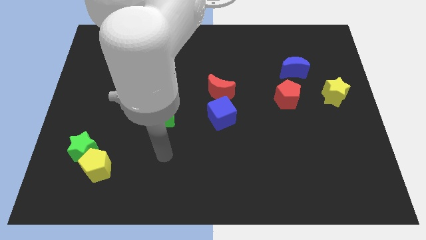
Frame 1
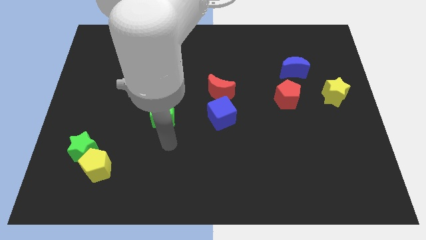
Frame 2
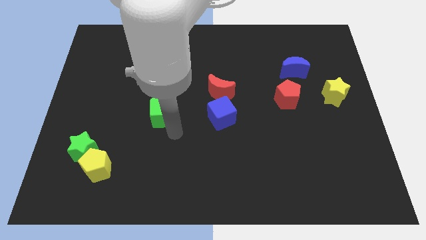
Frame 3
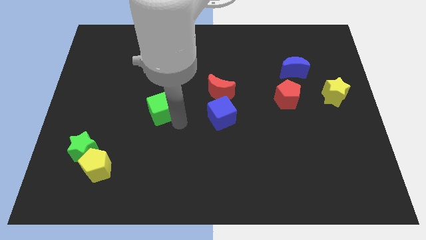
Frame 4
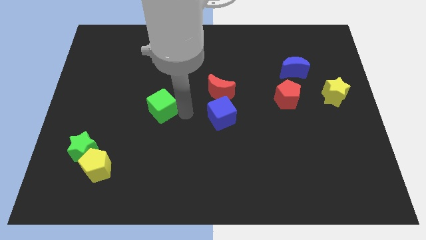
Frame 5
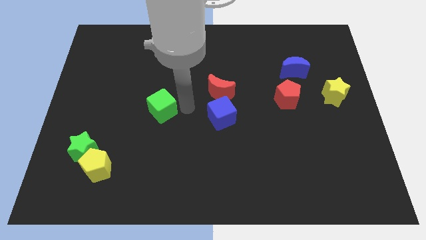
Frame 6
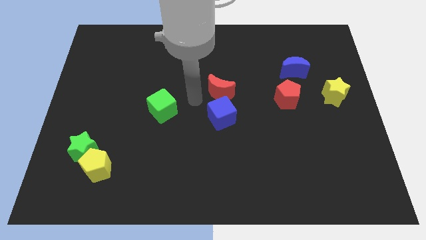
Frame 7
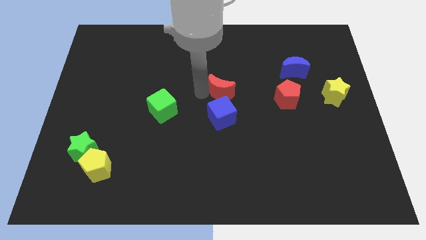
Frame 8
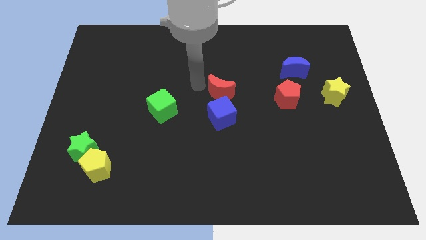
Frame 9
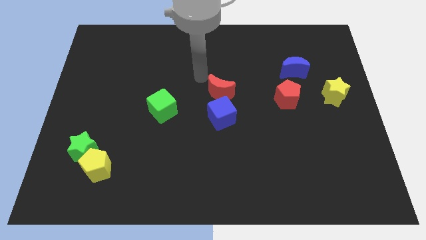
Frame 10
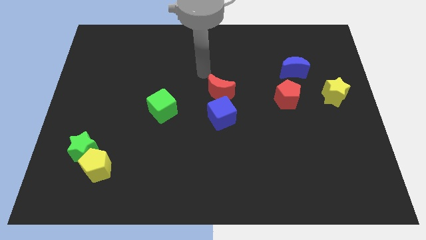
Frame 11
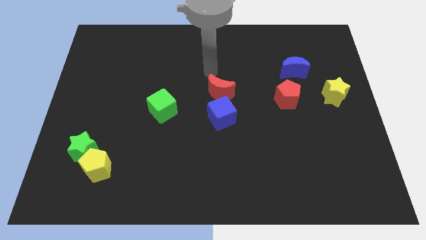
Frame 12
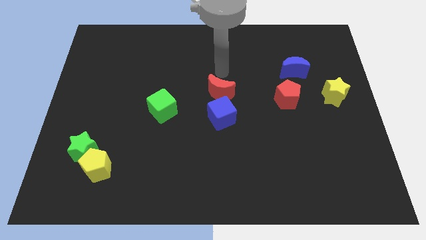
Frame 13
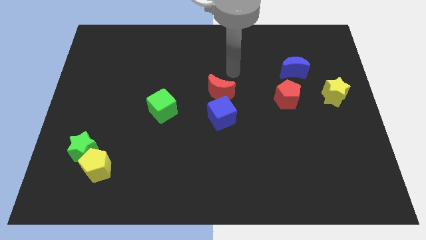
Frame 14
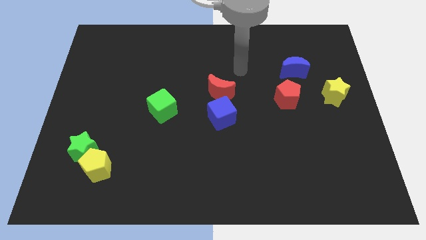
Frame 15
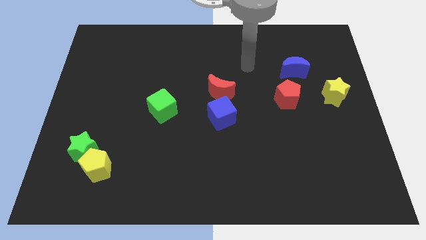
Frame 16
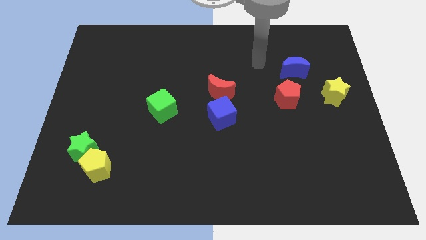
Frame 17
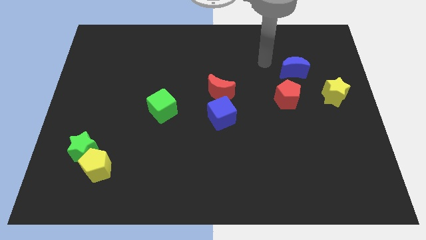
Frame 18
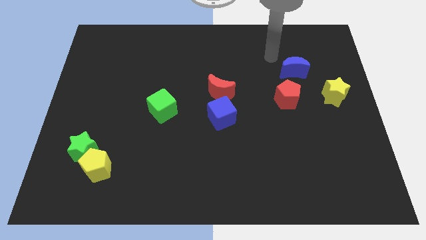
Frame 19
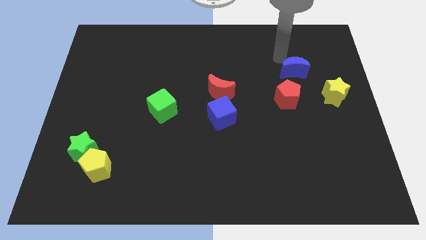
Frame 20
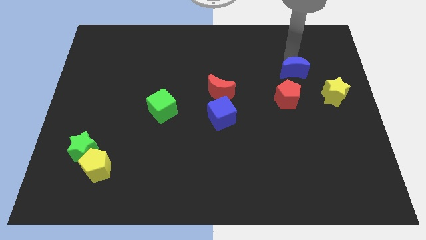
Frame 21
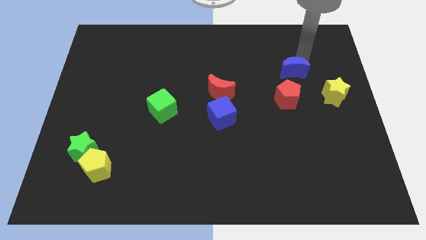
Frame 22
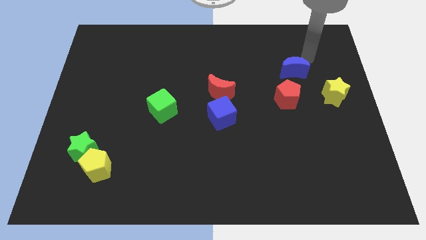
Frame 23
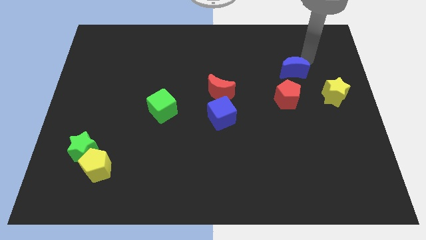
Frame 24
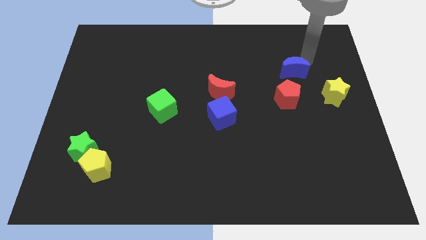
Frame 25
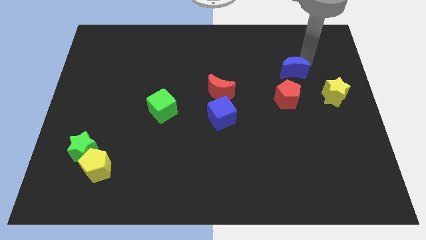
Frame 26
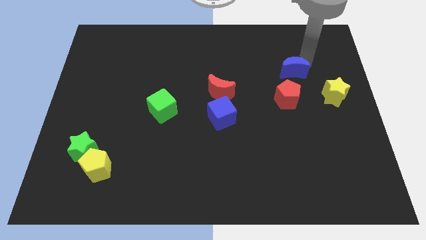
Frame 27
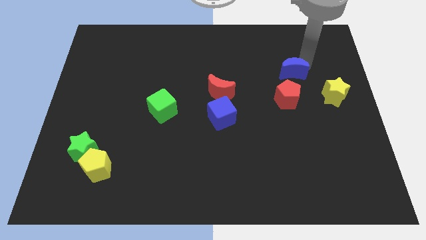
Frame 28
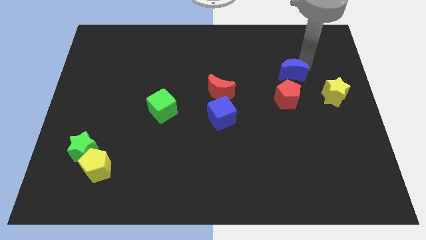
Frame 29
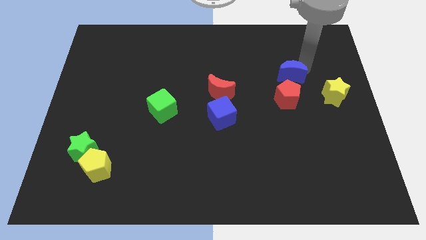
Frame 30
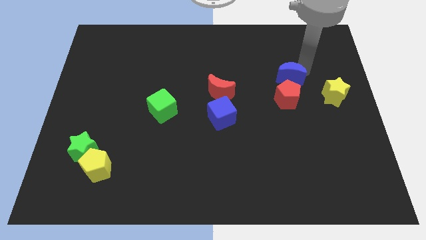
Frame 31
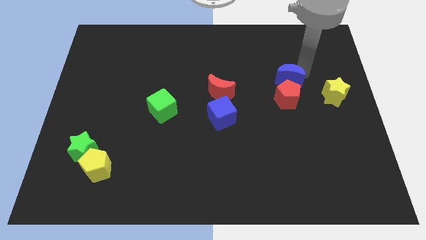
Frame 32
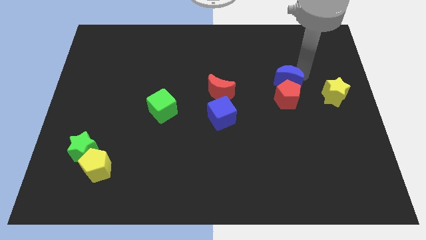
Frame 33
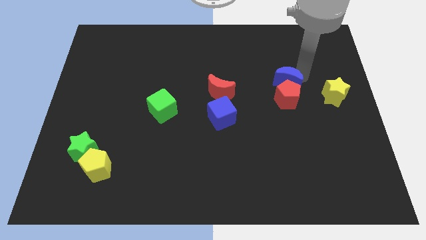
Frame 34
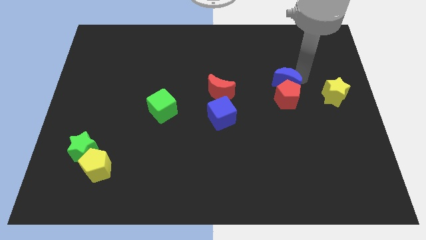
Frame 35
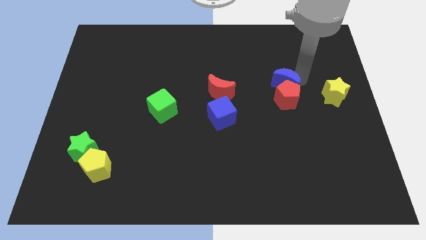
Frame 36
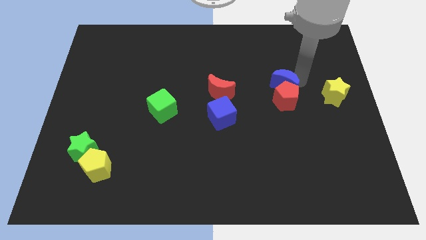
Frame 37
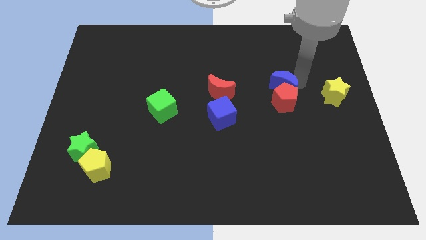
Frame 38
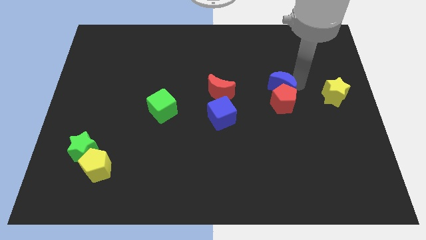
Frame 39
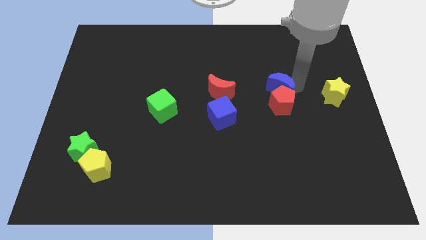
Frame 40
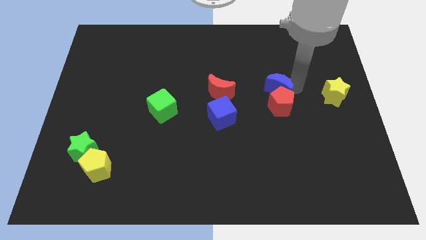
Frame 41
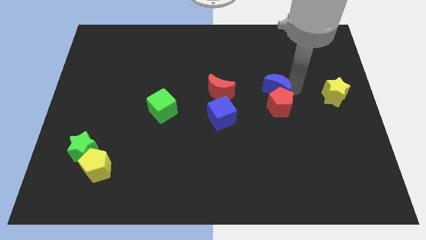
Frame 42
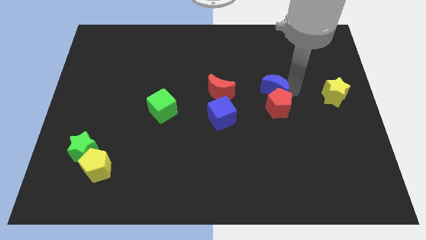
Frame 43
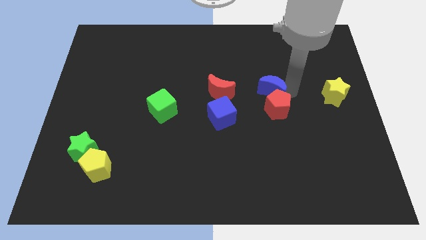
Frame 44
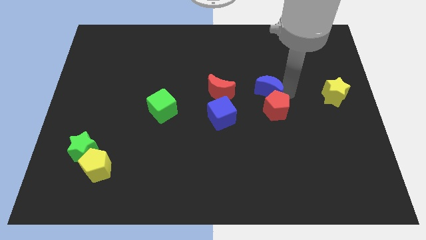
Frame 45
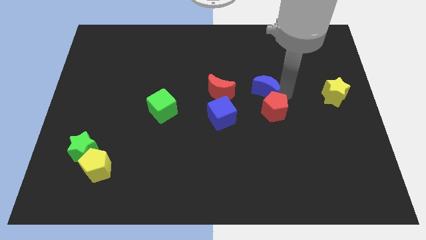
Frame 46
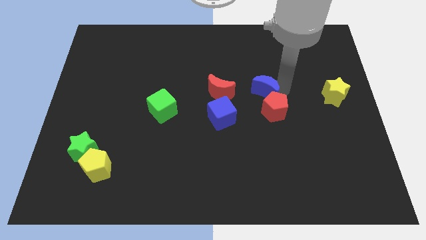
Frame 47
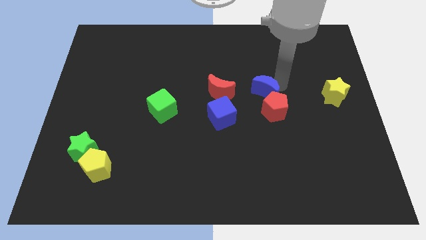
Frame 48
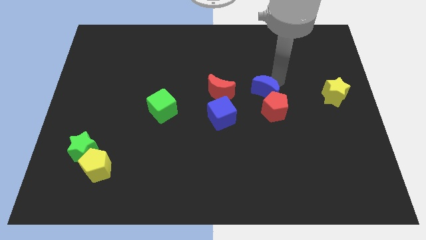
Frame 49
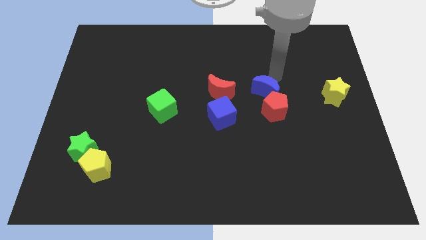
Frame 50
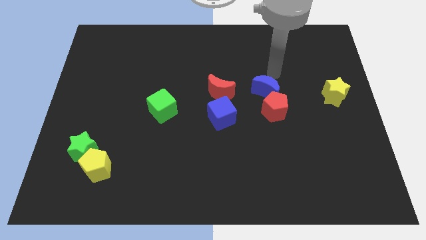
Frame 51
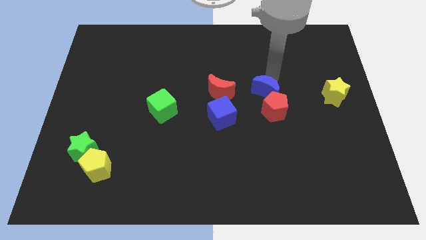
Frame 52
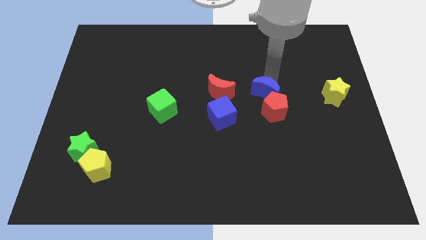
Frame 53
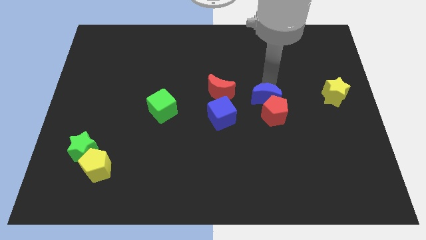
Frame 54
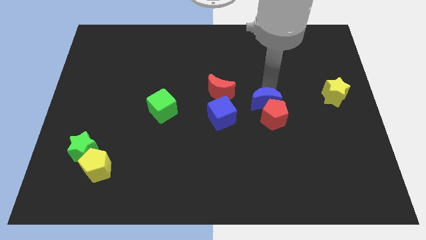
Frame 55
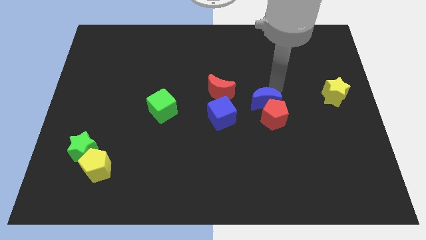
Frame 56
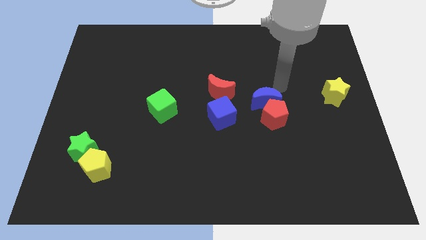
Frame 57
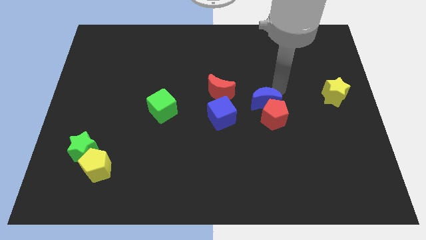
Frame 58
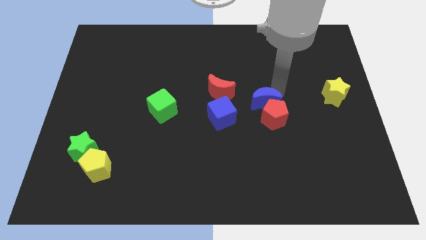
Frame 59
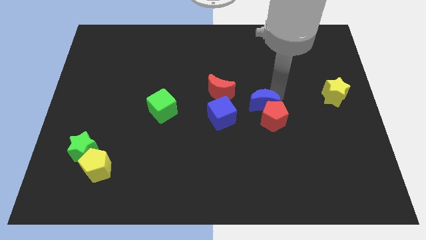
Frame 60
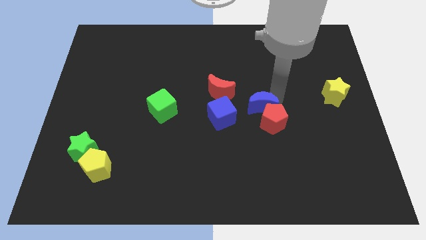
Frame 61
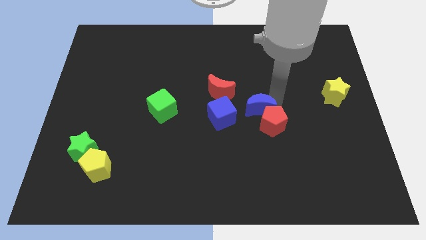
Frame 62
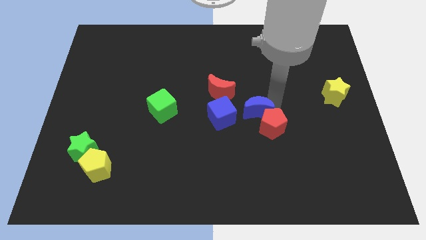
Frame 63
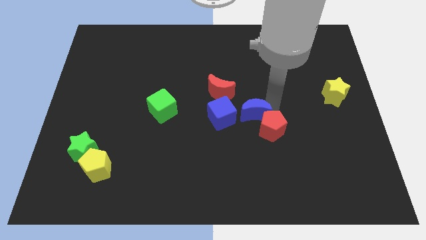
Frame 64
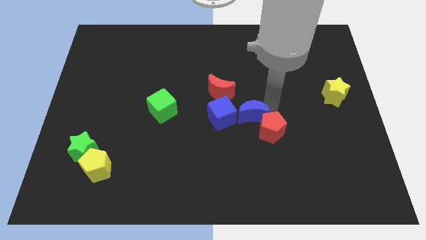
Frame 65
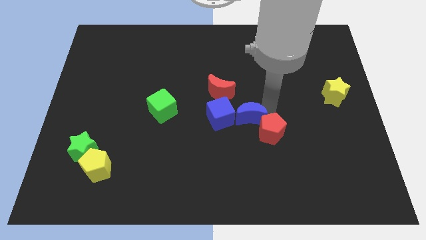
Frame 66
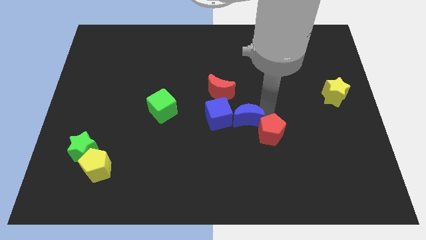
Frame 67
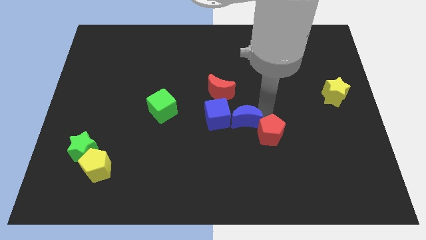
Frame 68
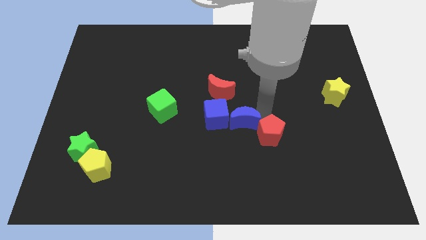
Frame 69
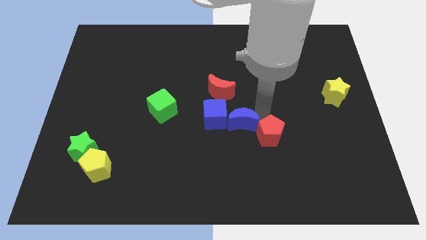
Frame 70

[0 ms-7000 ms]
push the blue moon to the bottom side of the red moon

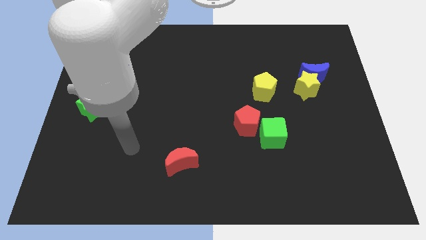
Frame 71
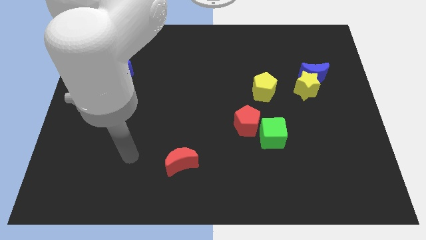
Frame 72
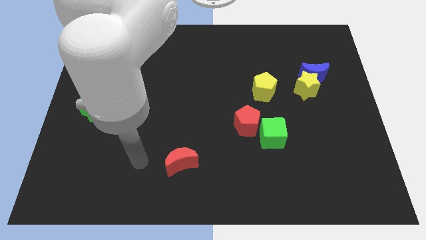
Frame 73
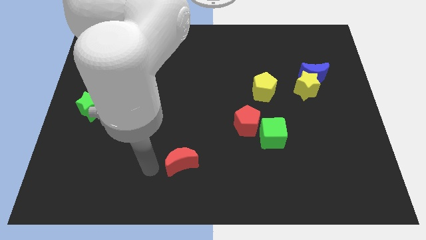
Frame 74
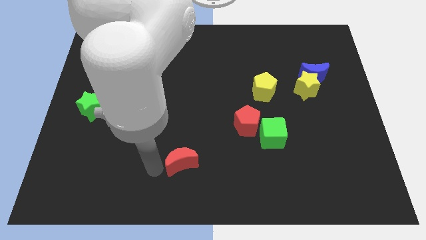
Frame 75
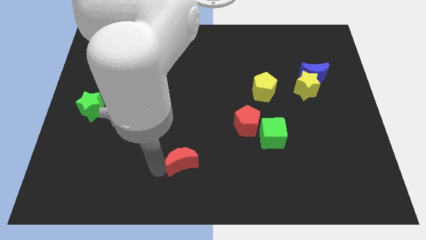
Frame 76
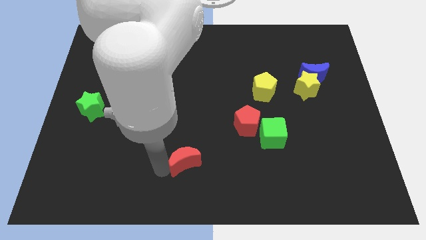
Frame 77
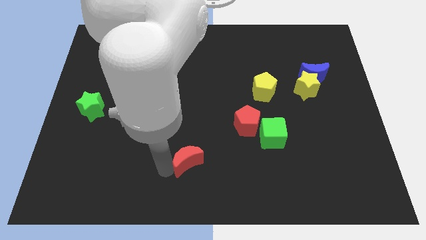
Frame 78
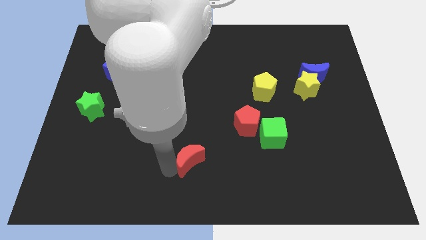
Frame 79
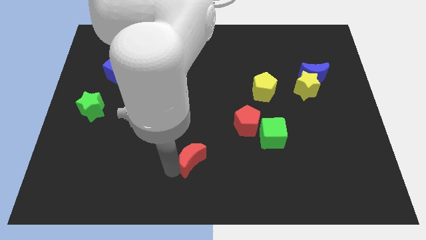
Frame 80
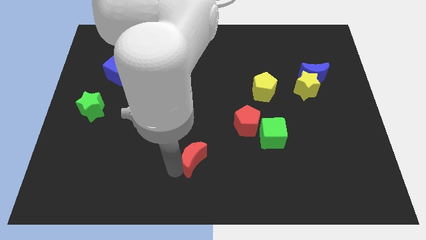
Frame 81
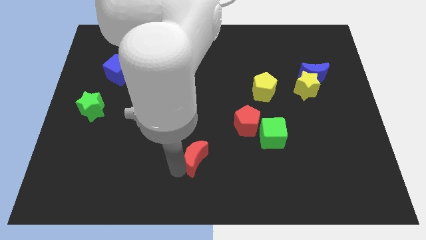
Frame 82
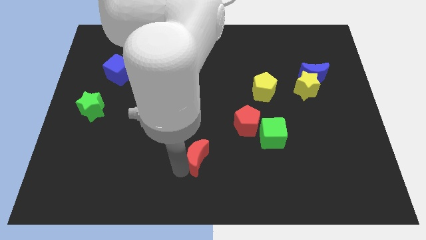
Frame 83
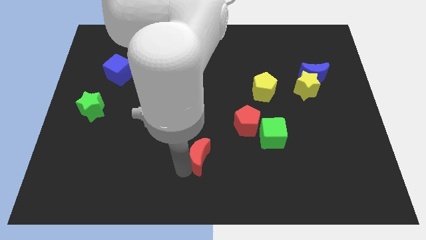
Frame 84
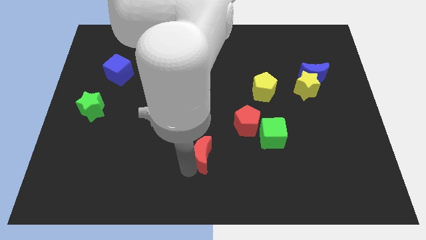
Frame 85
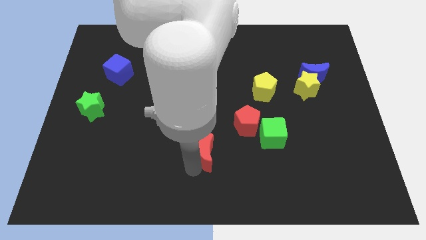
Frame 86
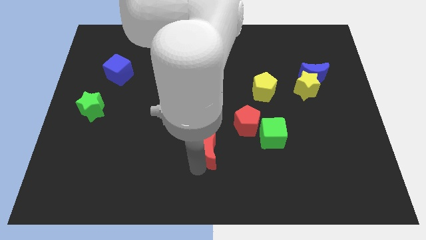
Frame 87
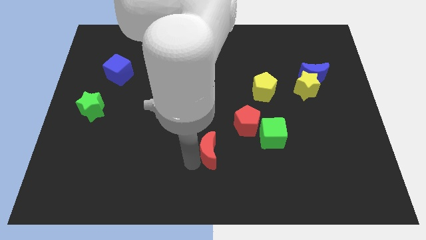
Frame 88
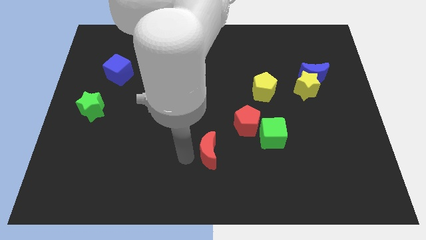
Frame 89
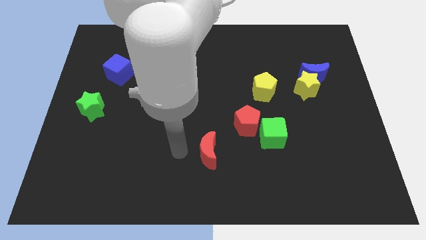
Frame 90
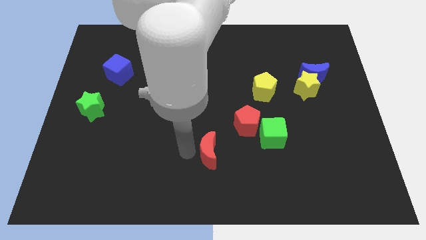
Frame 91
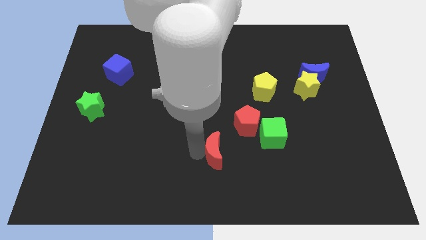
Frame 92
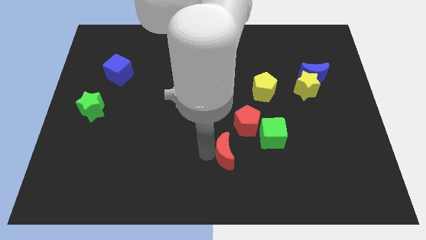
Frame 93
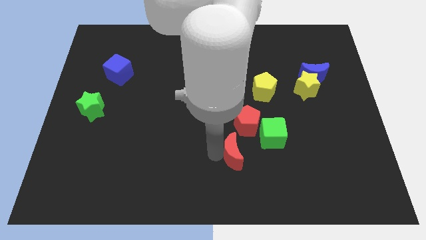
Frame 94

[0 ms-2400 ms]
slide the red moon to the bottom left of the green cube
